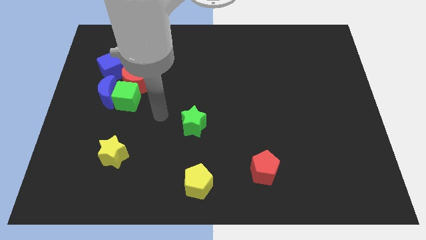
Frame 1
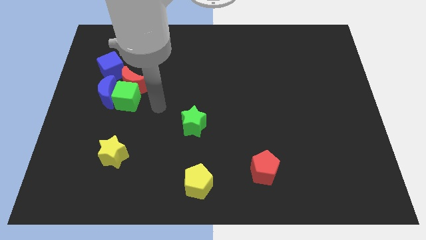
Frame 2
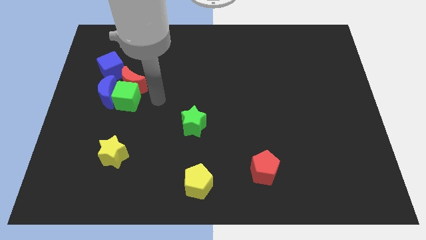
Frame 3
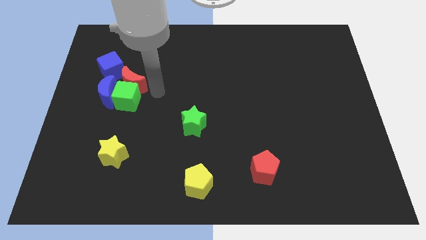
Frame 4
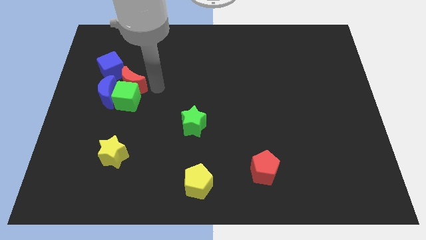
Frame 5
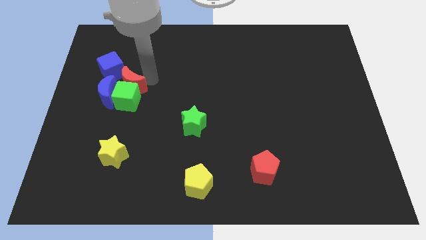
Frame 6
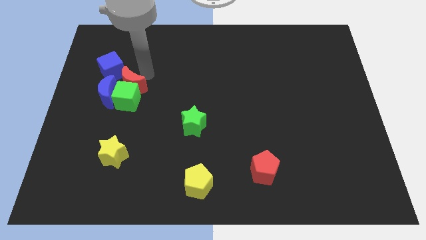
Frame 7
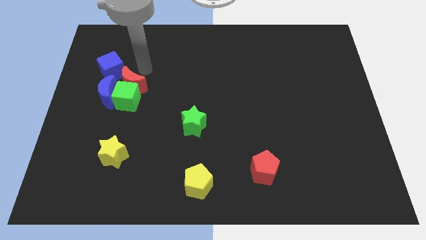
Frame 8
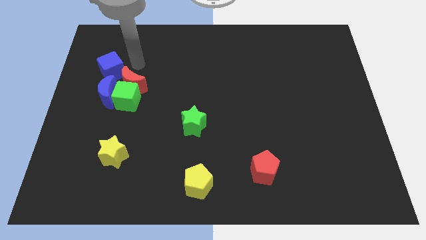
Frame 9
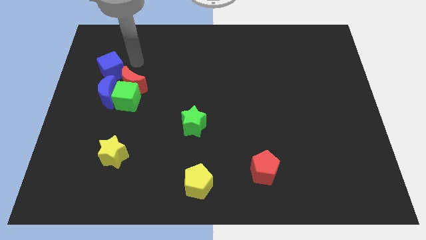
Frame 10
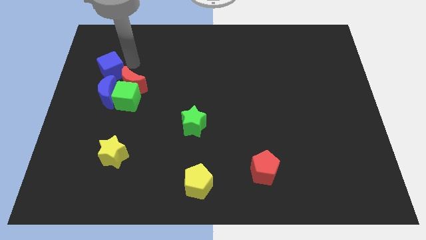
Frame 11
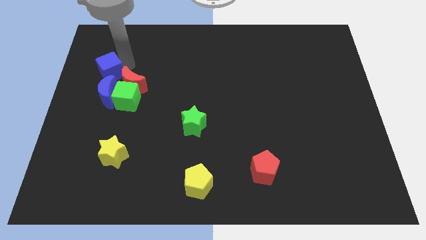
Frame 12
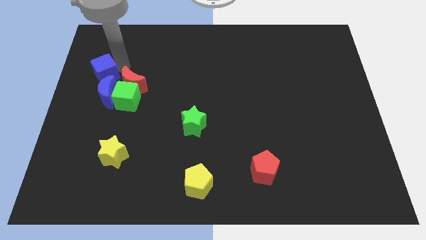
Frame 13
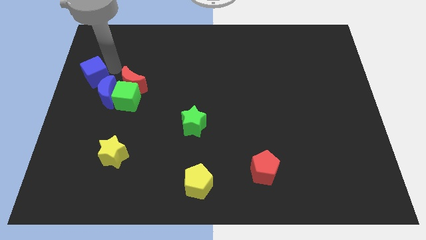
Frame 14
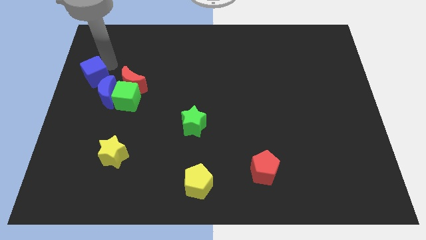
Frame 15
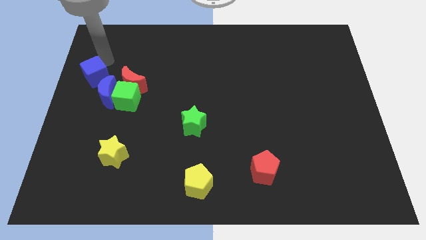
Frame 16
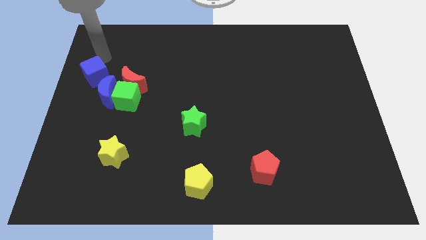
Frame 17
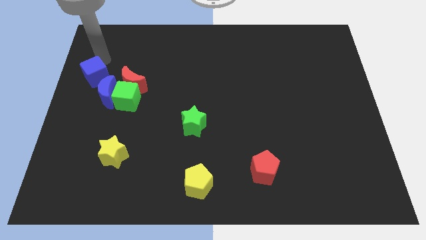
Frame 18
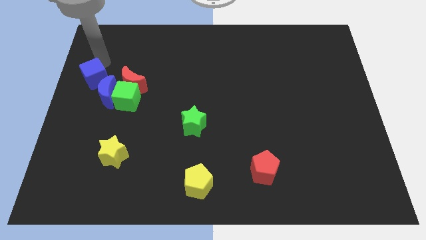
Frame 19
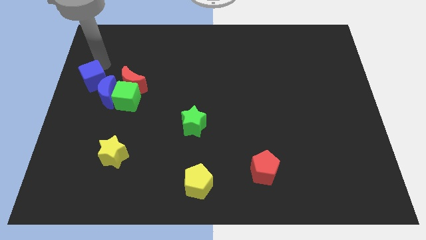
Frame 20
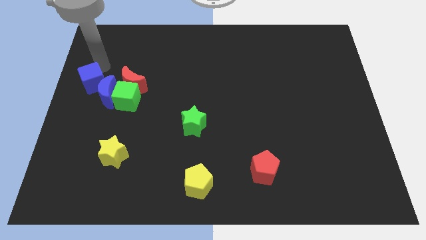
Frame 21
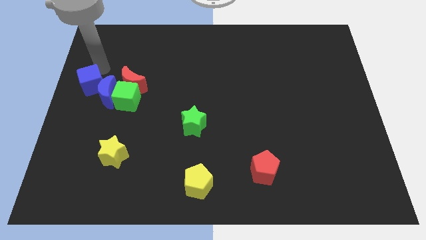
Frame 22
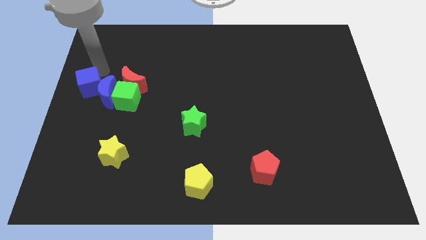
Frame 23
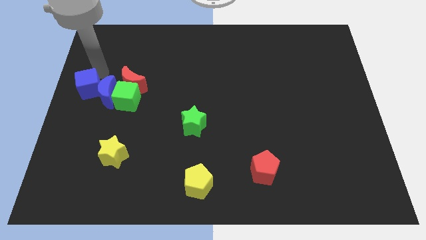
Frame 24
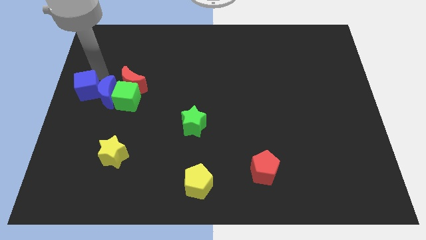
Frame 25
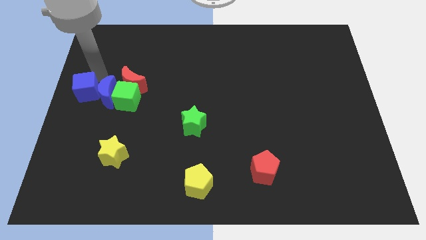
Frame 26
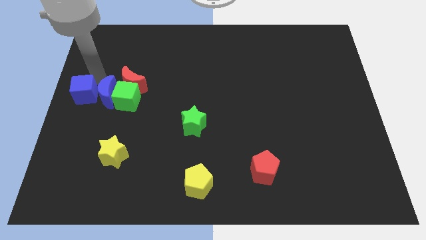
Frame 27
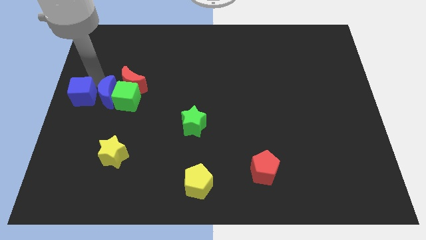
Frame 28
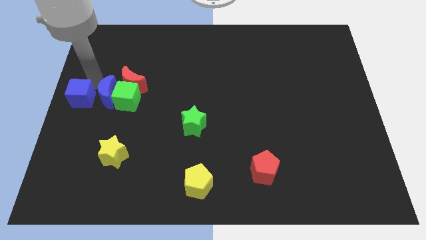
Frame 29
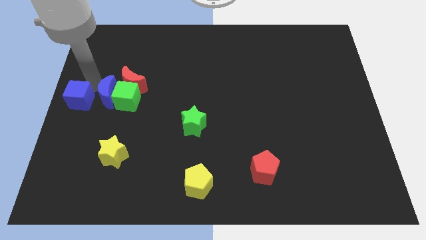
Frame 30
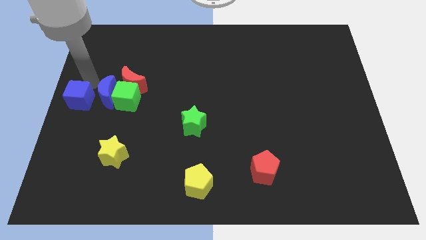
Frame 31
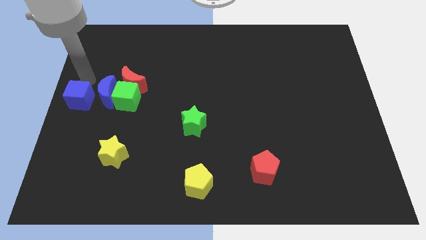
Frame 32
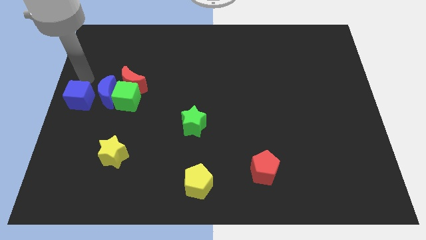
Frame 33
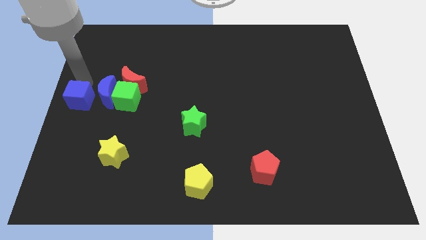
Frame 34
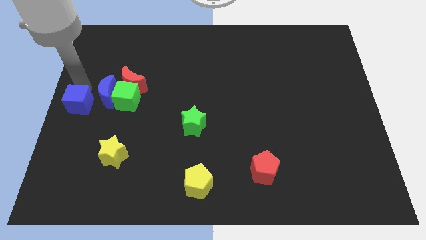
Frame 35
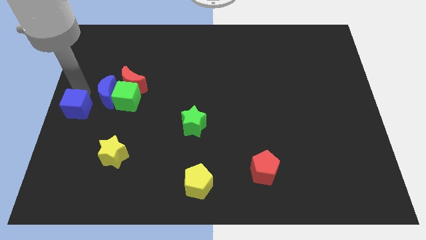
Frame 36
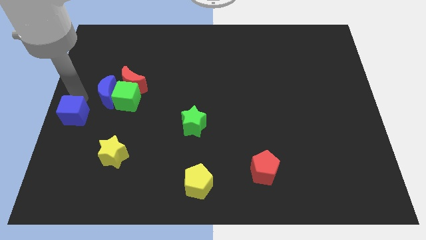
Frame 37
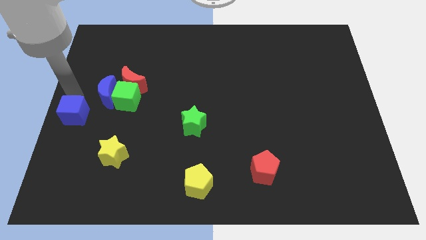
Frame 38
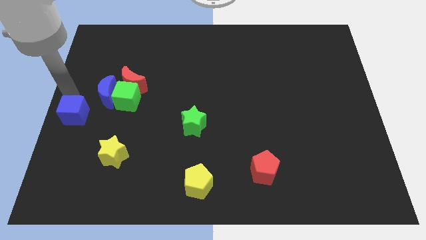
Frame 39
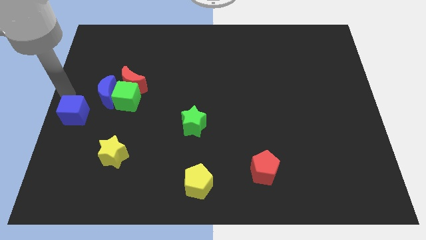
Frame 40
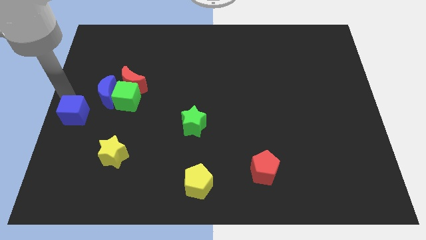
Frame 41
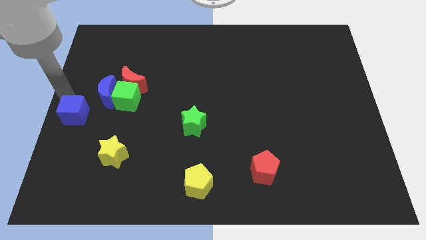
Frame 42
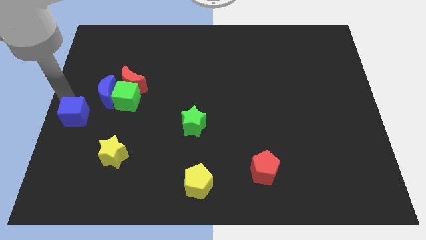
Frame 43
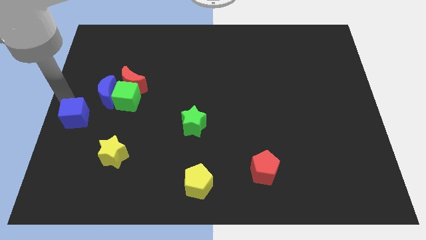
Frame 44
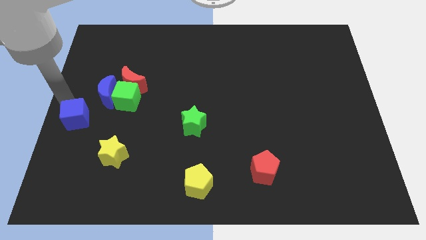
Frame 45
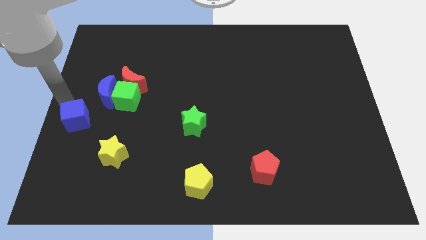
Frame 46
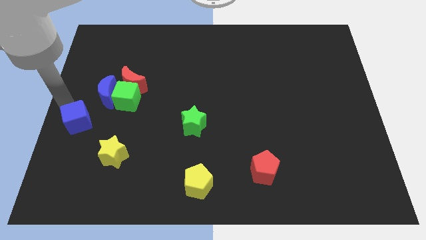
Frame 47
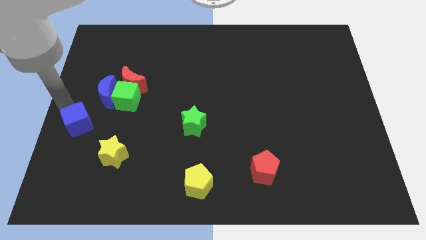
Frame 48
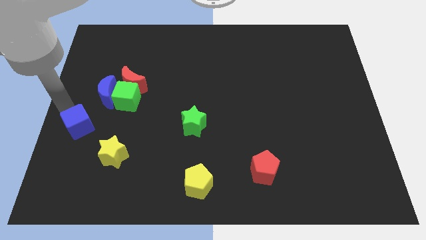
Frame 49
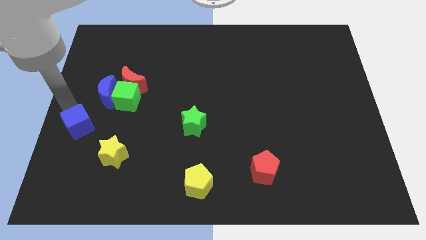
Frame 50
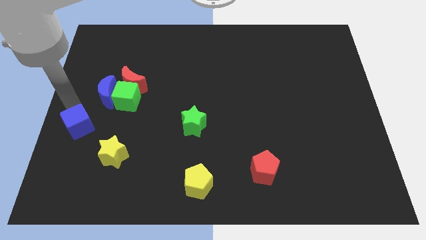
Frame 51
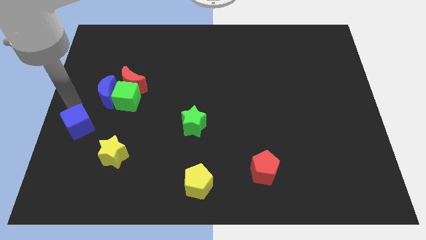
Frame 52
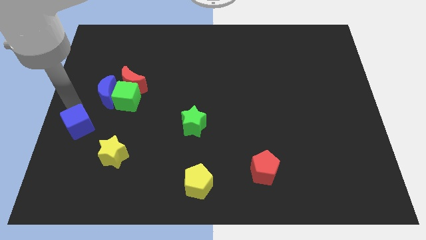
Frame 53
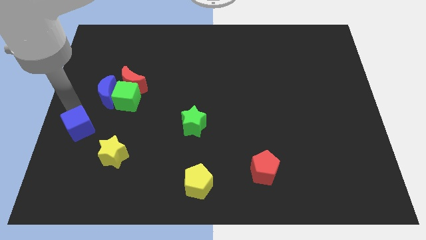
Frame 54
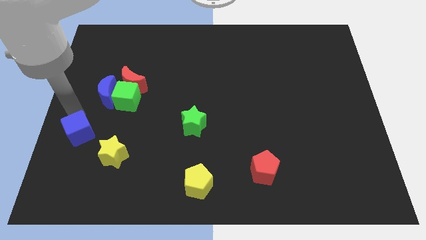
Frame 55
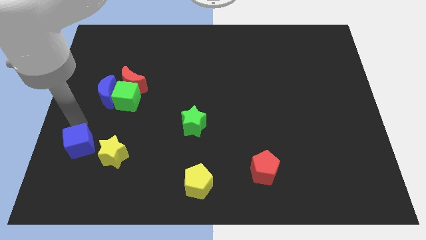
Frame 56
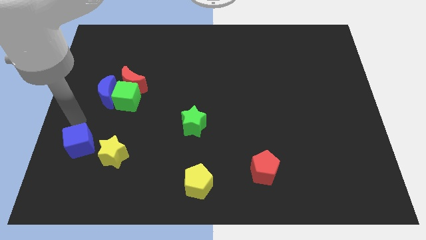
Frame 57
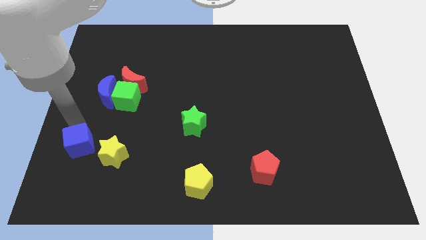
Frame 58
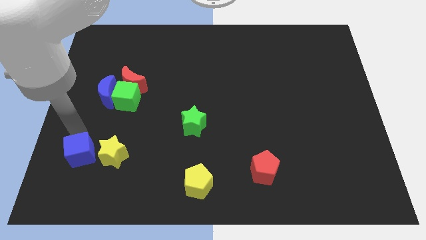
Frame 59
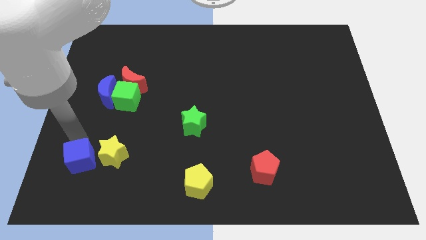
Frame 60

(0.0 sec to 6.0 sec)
slide the blue cube to the bottom left of the yellow star

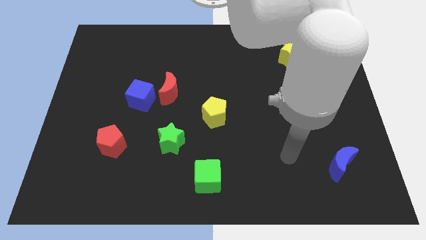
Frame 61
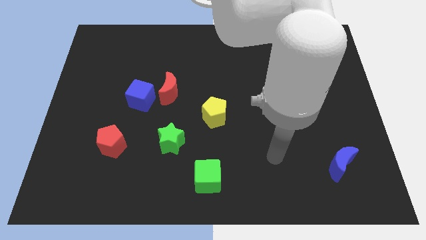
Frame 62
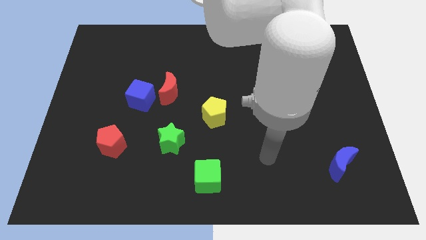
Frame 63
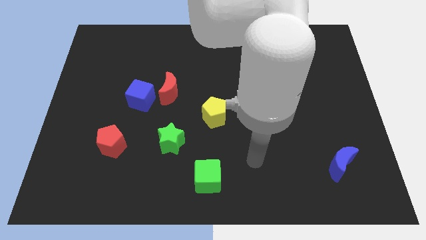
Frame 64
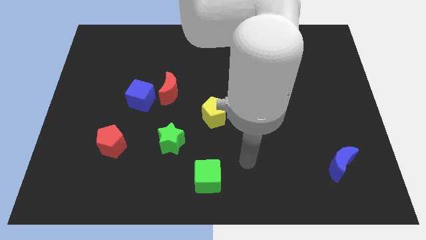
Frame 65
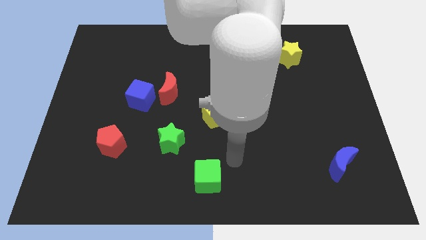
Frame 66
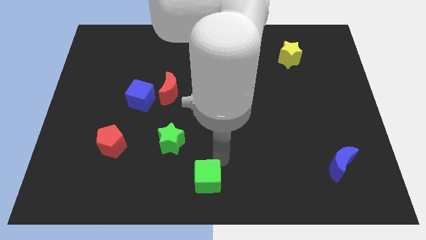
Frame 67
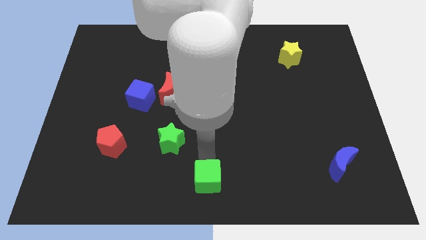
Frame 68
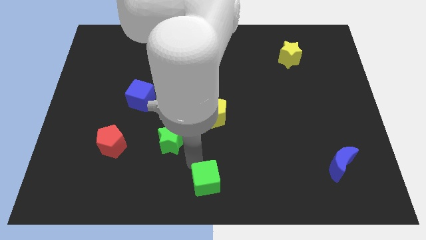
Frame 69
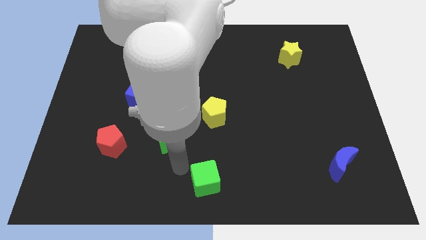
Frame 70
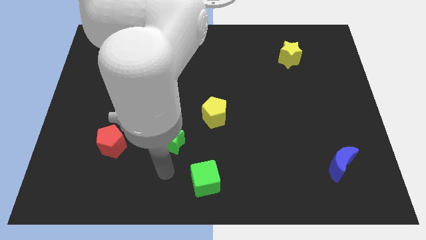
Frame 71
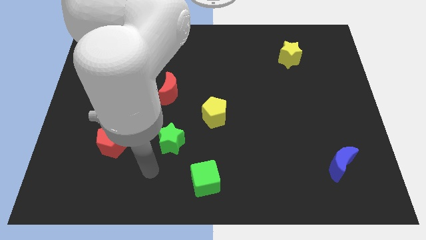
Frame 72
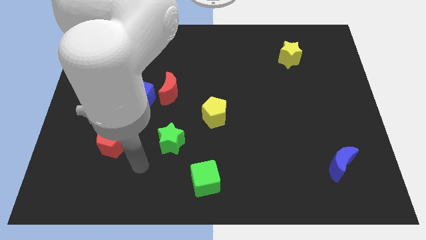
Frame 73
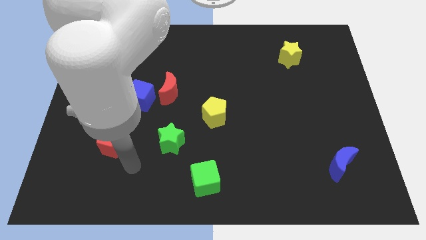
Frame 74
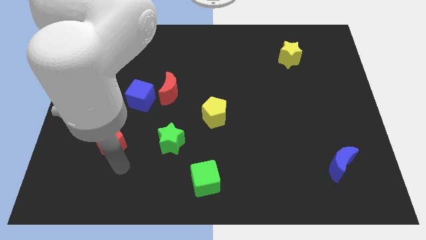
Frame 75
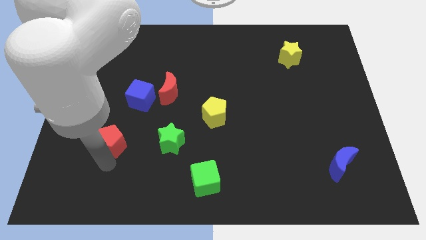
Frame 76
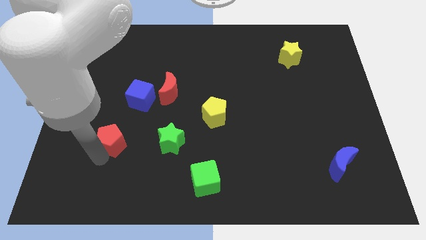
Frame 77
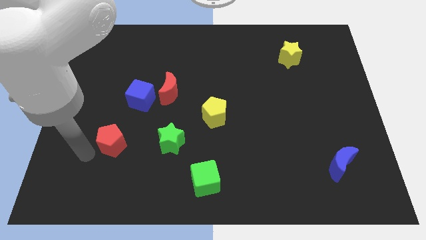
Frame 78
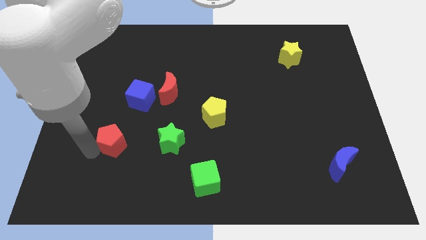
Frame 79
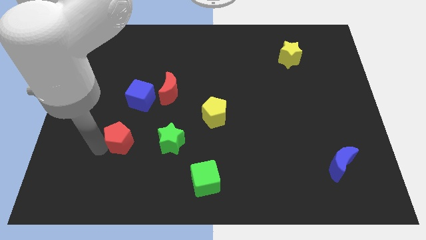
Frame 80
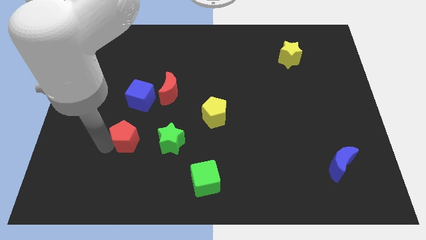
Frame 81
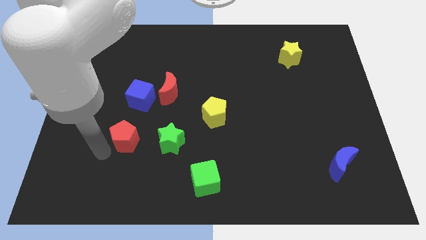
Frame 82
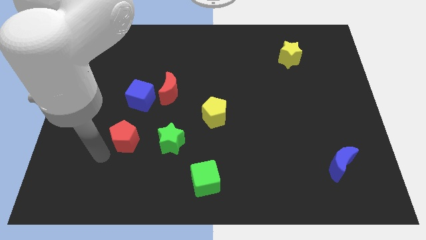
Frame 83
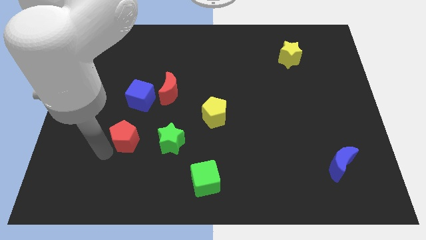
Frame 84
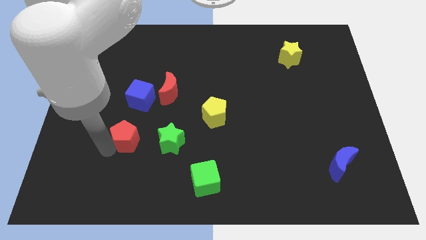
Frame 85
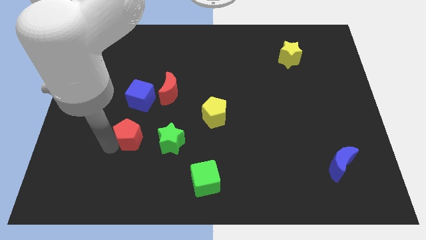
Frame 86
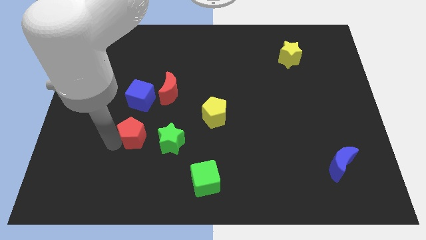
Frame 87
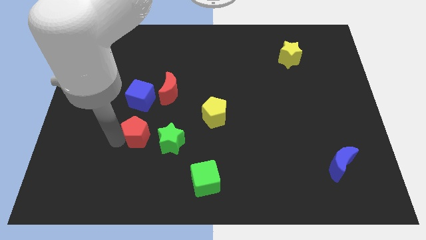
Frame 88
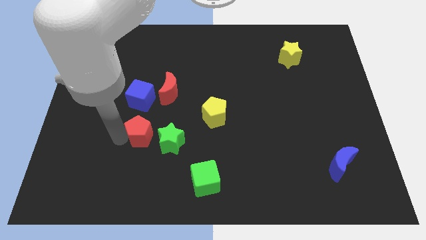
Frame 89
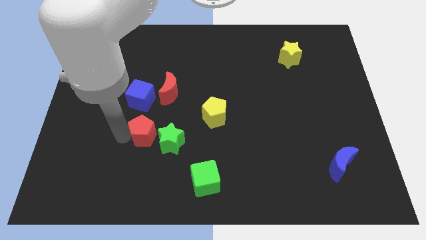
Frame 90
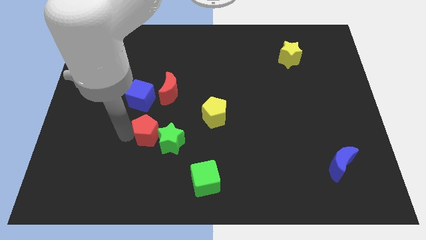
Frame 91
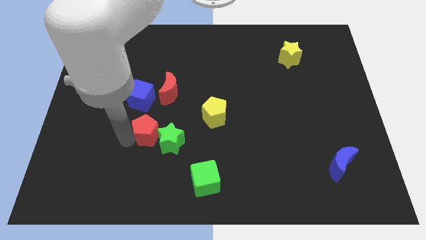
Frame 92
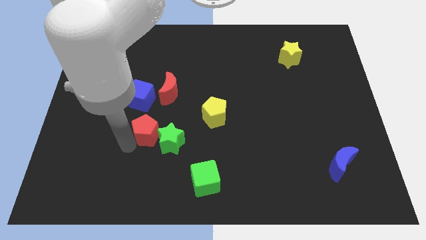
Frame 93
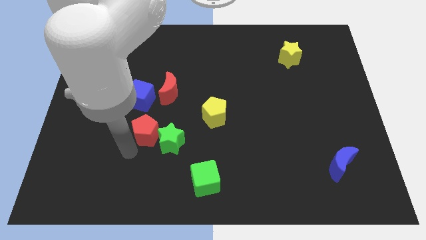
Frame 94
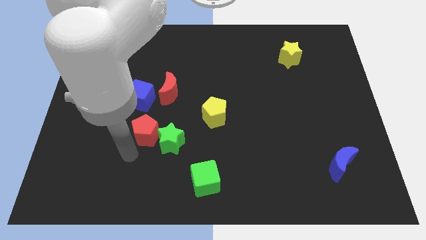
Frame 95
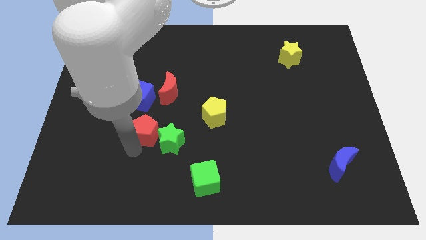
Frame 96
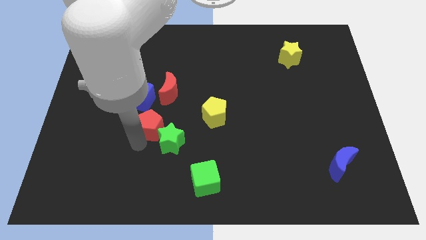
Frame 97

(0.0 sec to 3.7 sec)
put the red pentagon to the bottom right side of the blue cube
